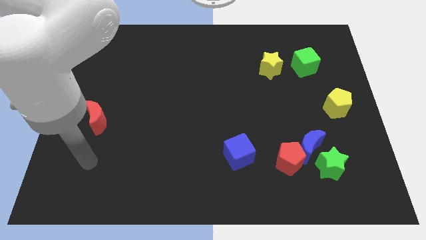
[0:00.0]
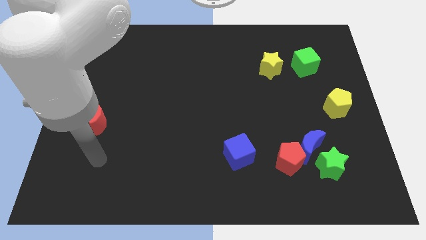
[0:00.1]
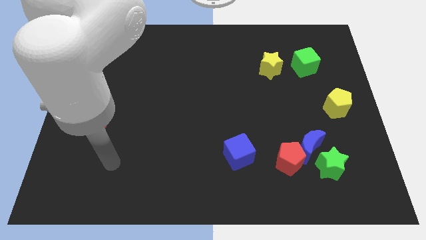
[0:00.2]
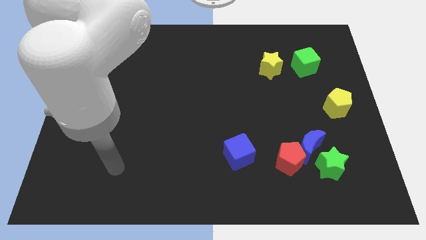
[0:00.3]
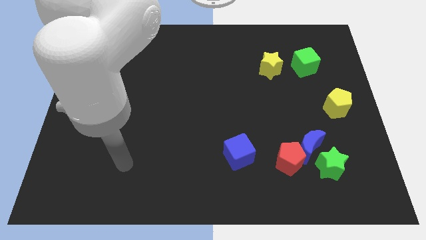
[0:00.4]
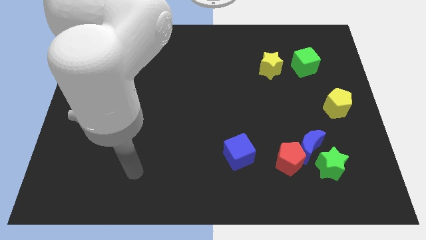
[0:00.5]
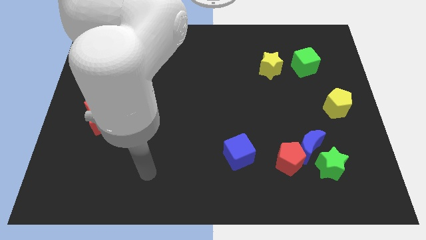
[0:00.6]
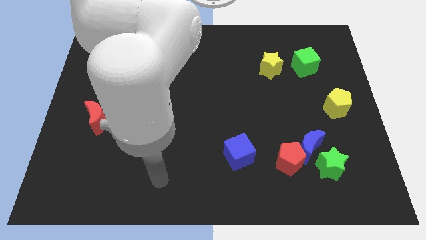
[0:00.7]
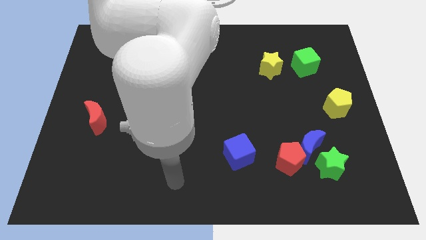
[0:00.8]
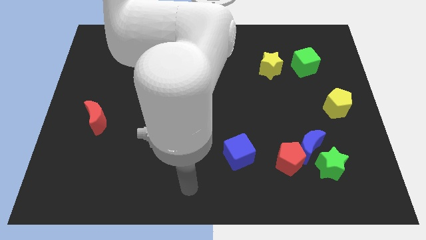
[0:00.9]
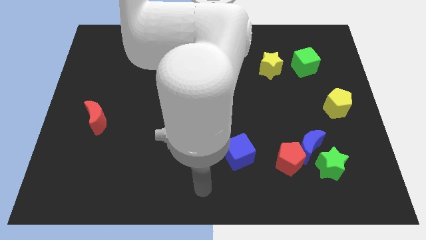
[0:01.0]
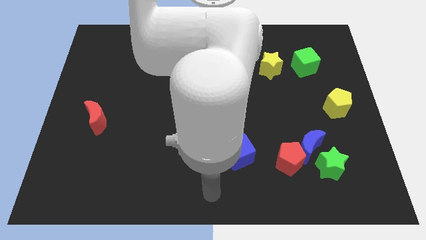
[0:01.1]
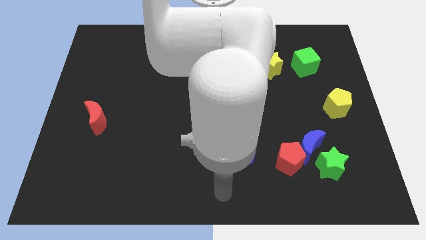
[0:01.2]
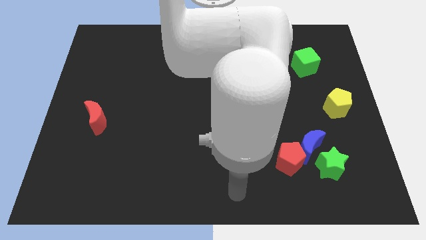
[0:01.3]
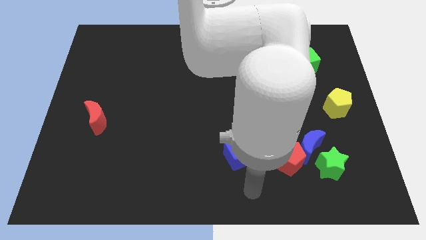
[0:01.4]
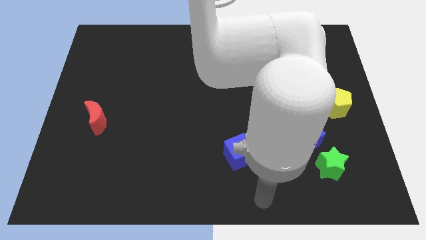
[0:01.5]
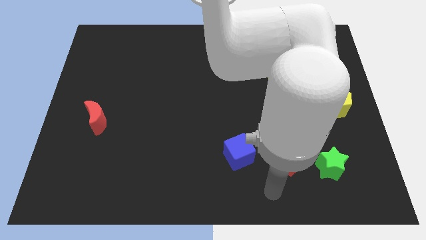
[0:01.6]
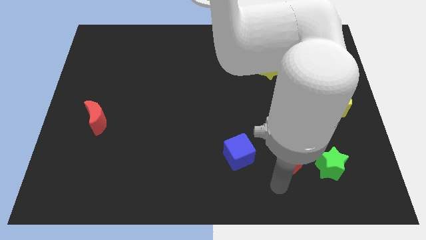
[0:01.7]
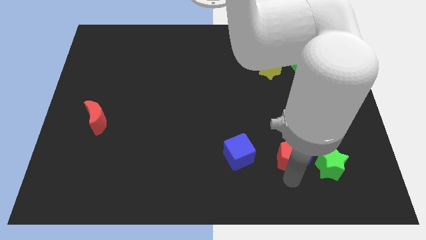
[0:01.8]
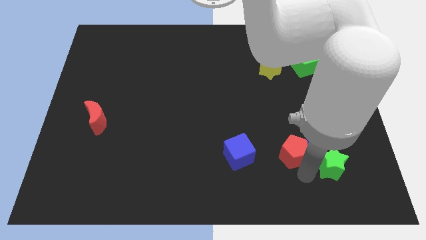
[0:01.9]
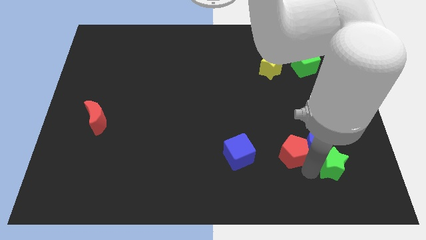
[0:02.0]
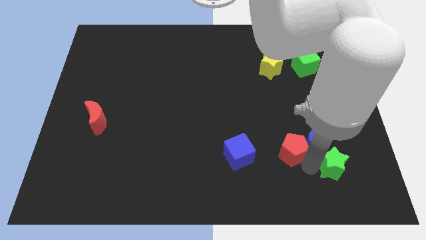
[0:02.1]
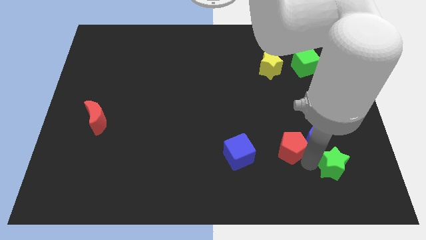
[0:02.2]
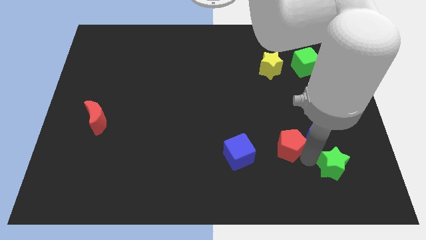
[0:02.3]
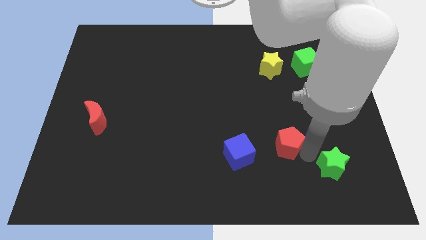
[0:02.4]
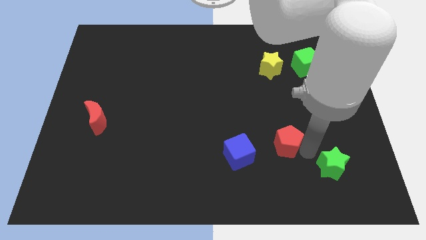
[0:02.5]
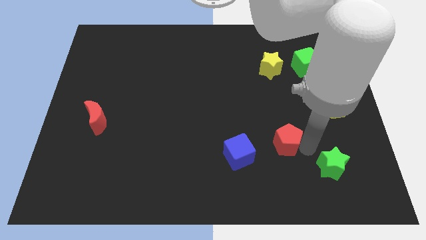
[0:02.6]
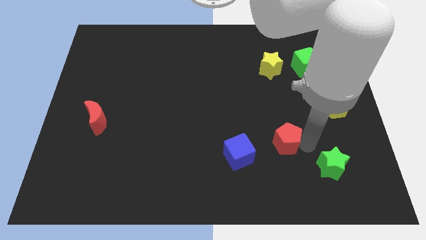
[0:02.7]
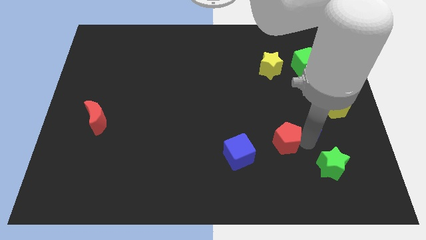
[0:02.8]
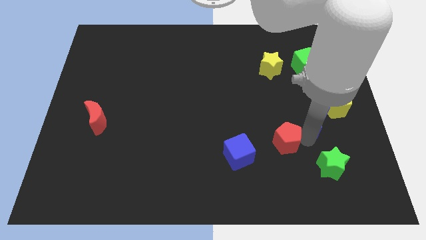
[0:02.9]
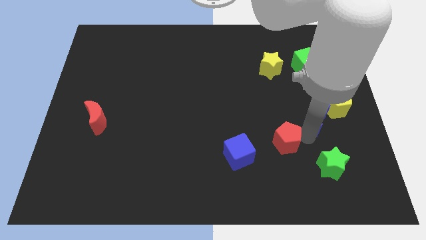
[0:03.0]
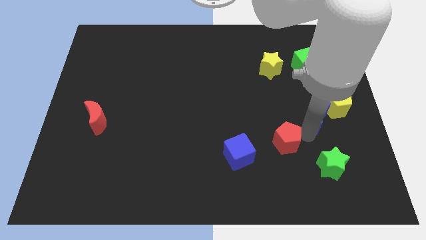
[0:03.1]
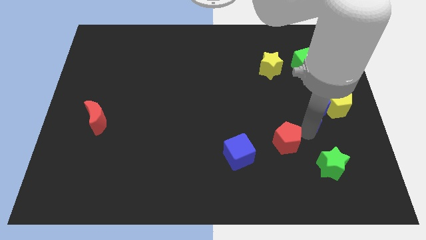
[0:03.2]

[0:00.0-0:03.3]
move the blue moon away from the red pentagon and green star

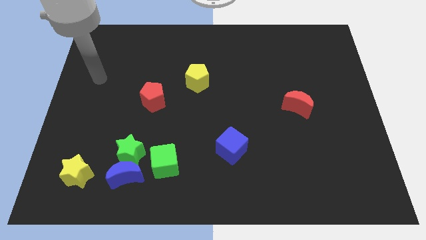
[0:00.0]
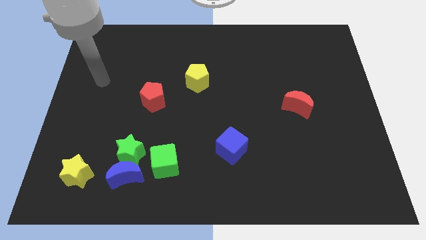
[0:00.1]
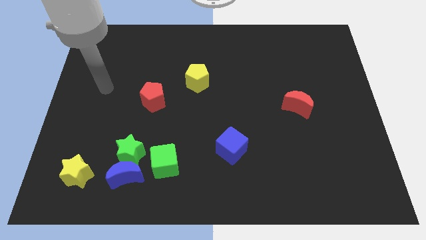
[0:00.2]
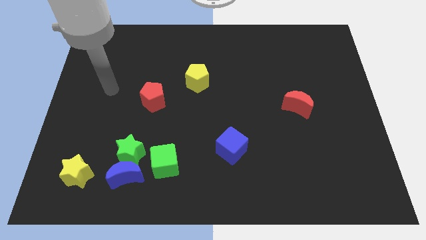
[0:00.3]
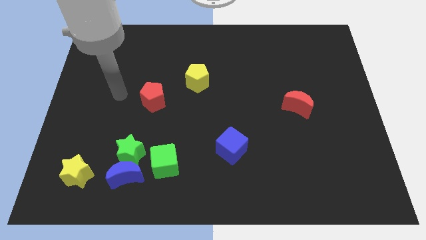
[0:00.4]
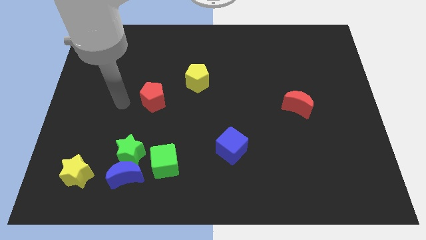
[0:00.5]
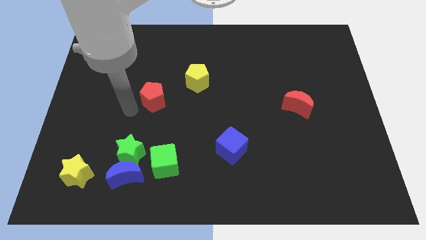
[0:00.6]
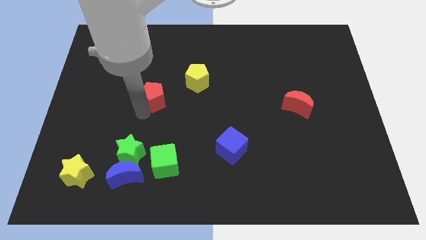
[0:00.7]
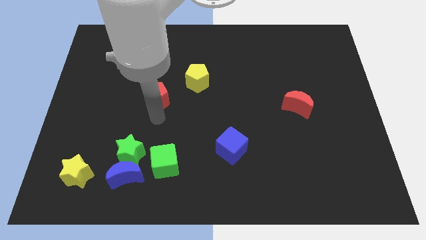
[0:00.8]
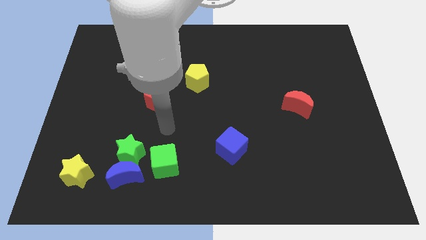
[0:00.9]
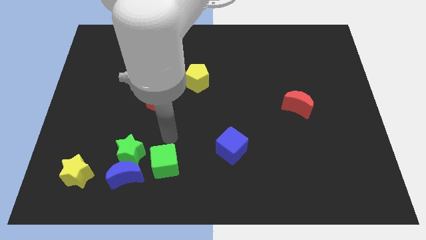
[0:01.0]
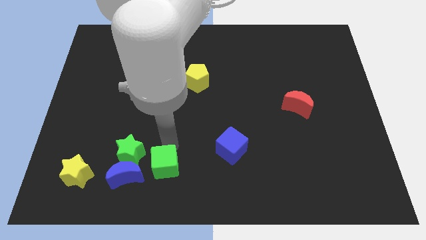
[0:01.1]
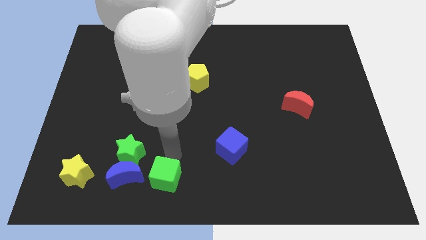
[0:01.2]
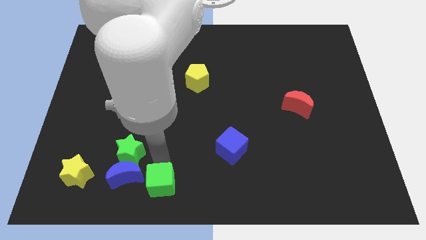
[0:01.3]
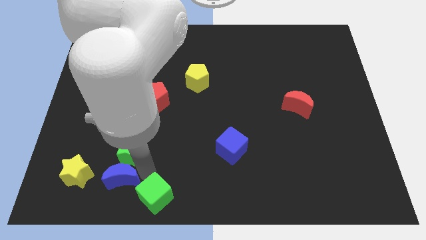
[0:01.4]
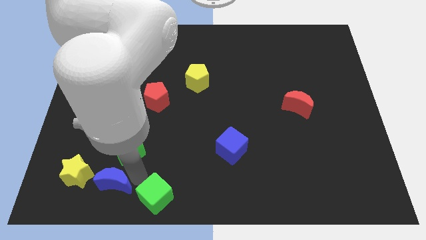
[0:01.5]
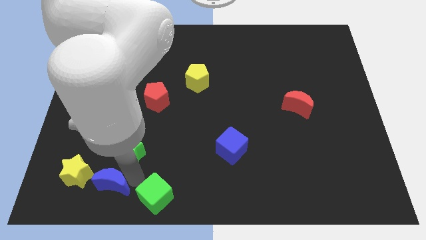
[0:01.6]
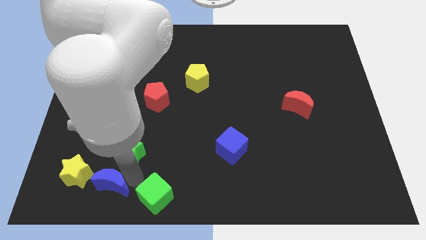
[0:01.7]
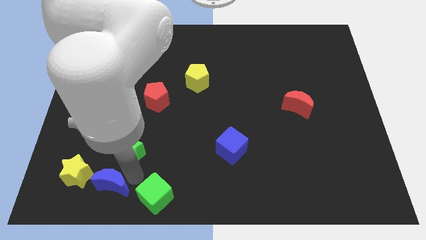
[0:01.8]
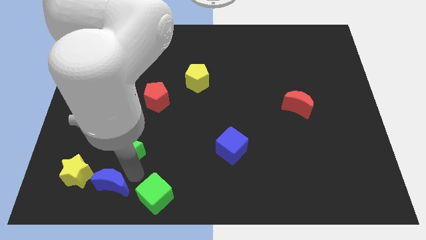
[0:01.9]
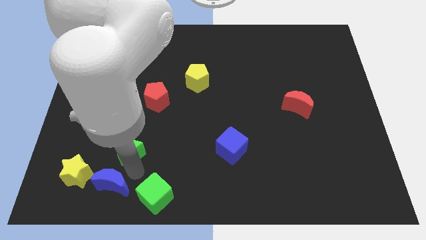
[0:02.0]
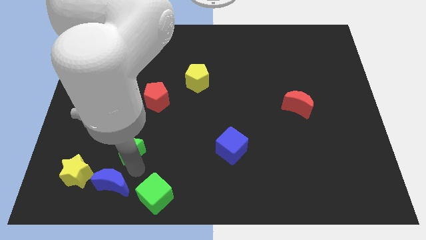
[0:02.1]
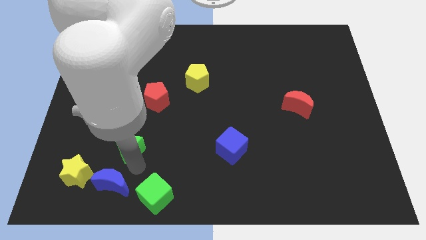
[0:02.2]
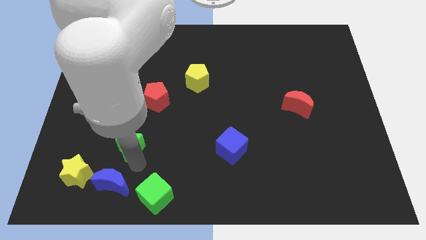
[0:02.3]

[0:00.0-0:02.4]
move the green star away from the blue moon and green cube

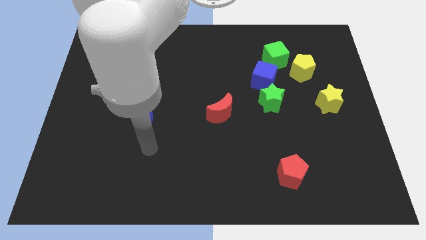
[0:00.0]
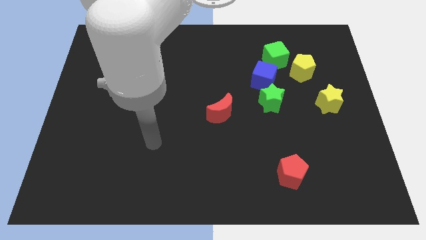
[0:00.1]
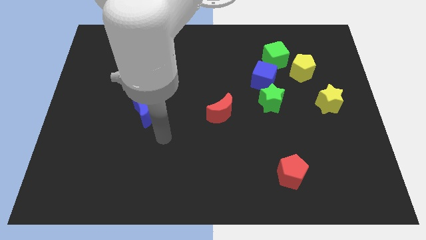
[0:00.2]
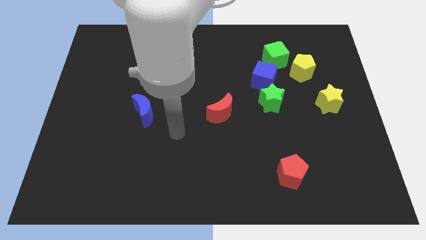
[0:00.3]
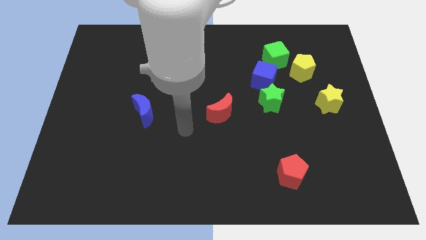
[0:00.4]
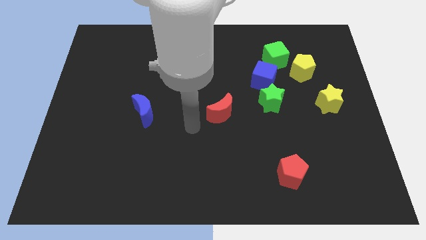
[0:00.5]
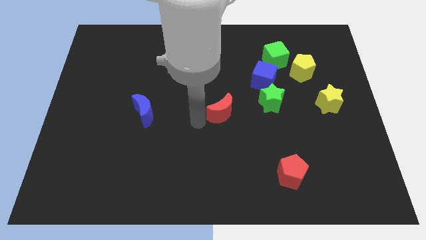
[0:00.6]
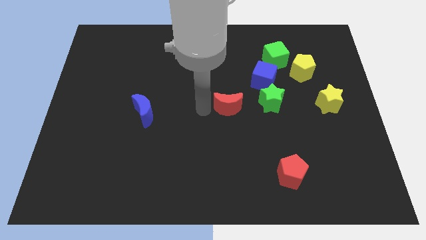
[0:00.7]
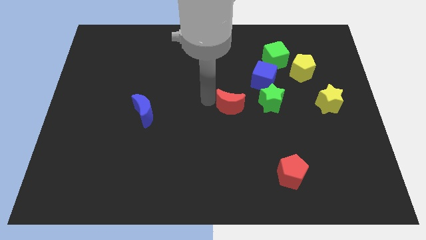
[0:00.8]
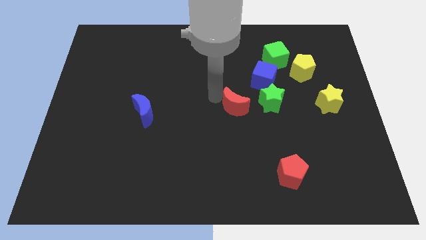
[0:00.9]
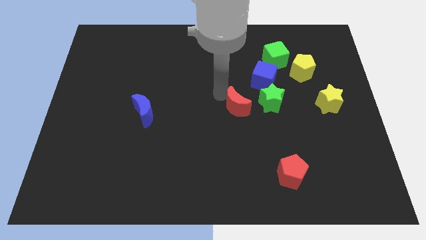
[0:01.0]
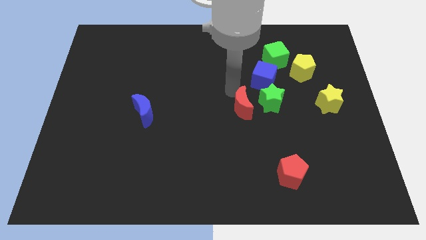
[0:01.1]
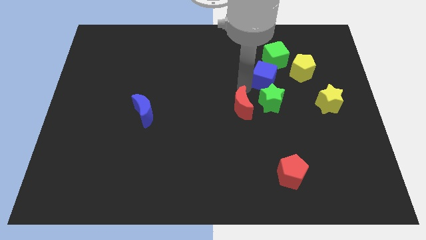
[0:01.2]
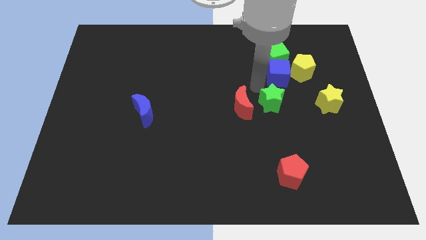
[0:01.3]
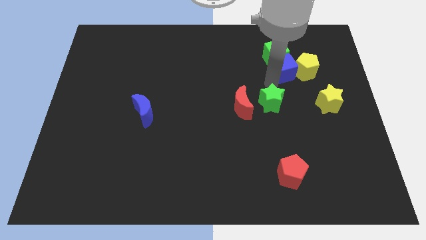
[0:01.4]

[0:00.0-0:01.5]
pull the green star apart from the blue cube

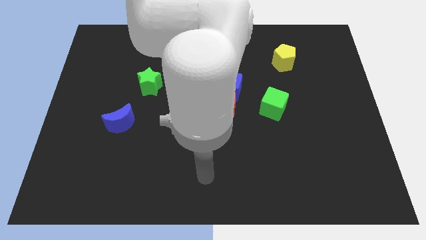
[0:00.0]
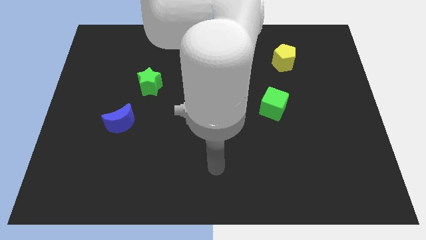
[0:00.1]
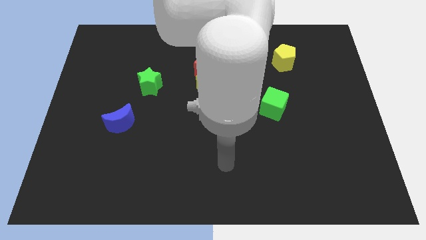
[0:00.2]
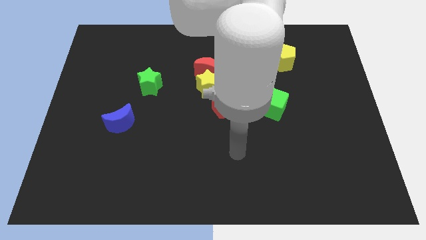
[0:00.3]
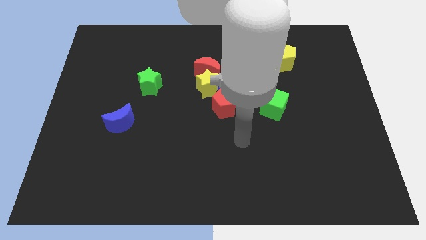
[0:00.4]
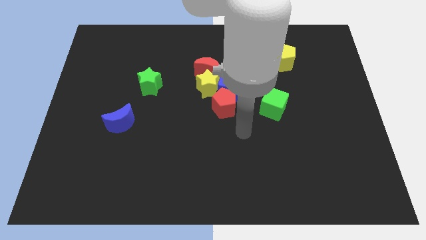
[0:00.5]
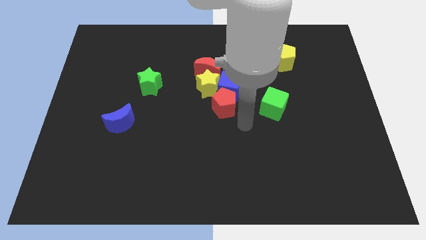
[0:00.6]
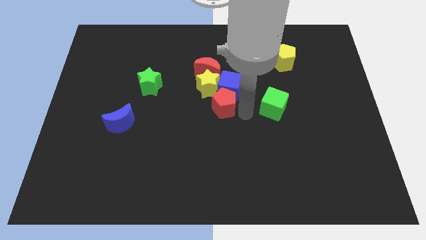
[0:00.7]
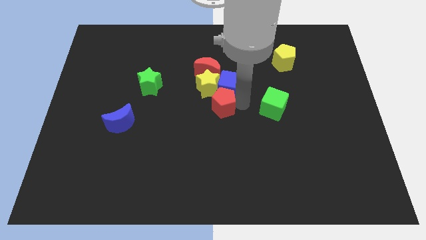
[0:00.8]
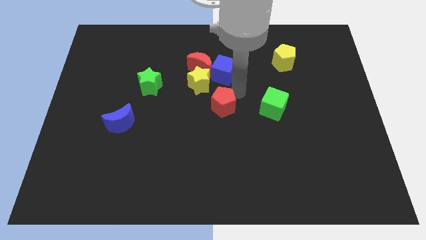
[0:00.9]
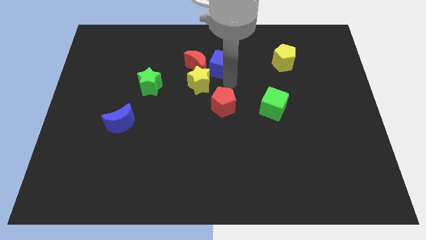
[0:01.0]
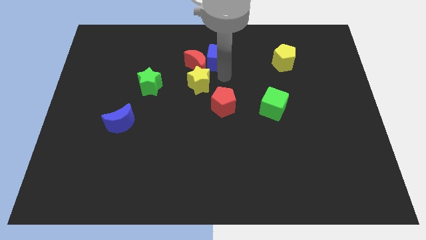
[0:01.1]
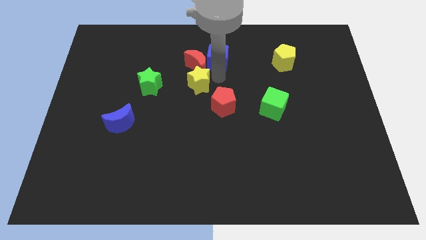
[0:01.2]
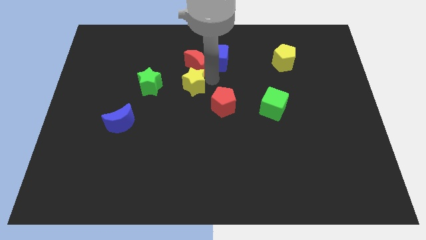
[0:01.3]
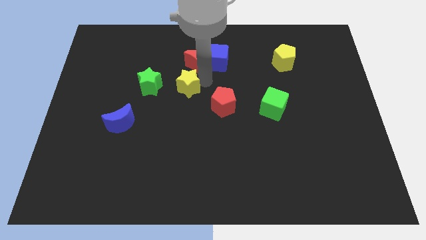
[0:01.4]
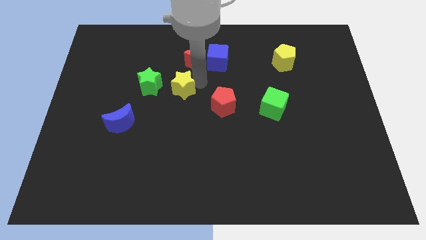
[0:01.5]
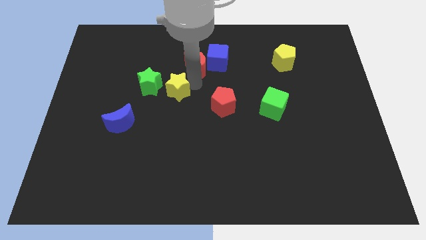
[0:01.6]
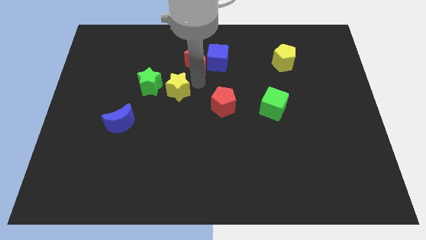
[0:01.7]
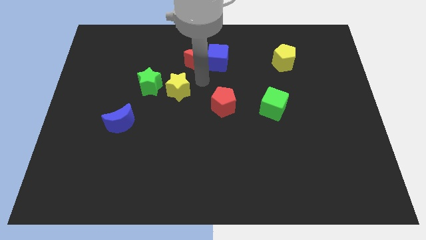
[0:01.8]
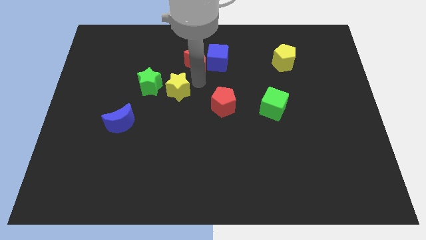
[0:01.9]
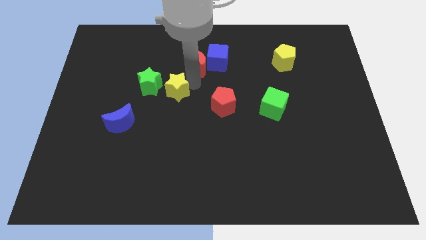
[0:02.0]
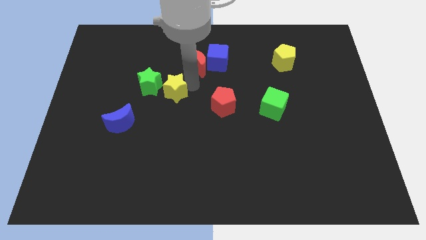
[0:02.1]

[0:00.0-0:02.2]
pull the yellow star apart from the red moon, blue cube, and red pentagon
